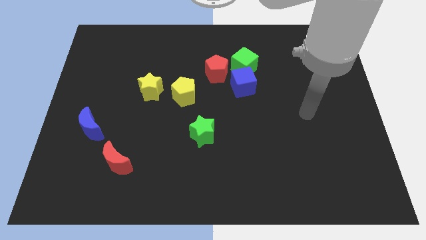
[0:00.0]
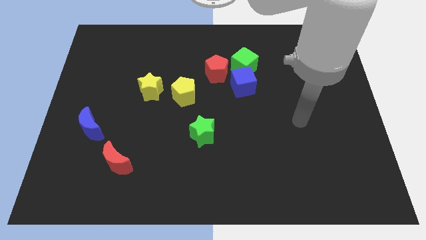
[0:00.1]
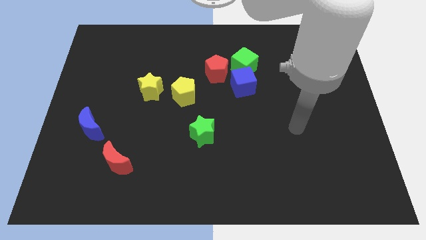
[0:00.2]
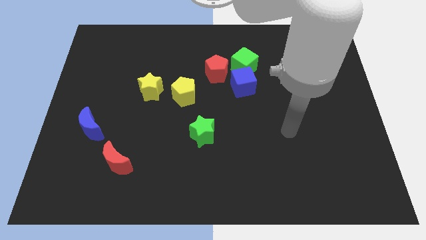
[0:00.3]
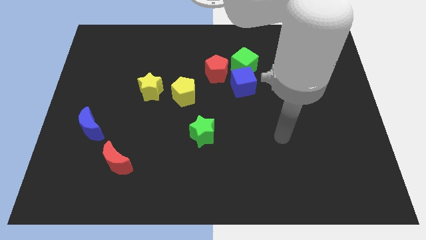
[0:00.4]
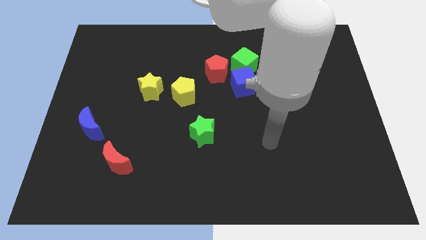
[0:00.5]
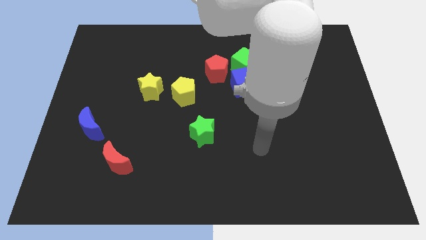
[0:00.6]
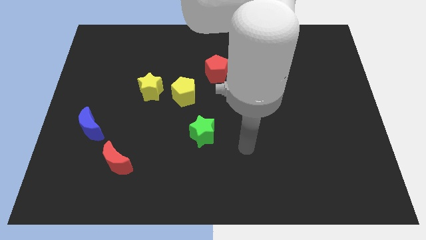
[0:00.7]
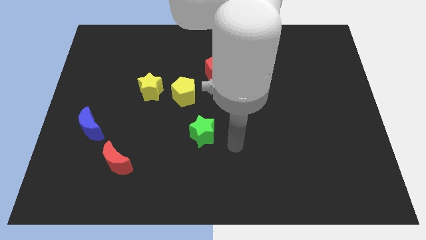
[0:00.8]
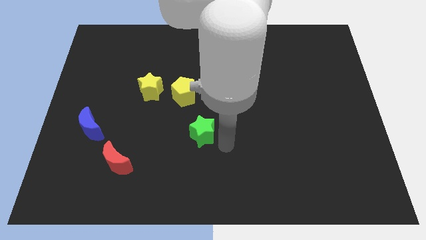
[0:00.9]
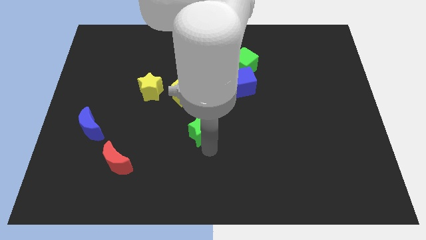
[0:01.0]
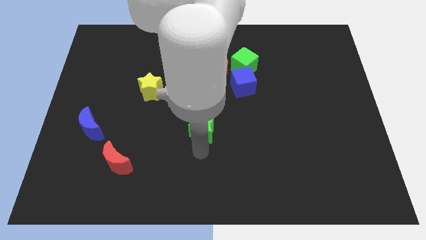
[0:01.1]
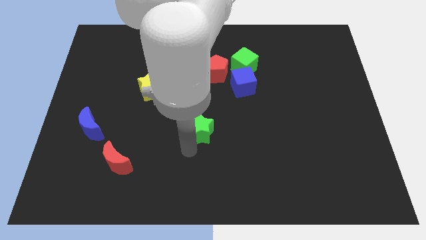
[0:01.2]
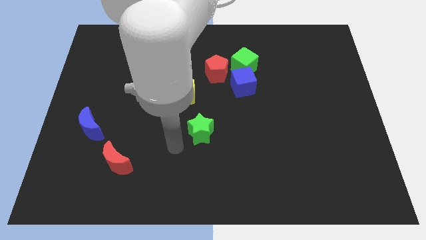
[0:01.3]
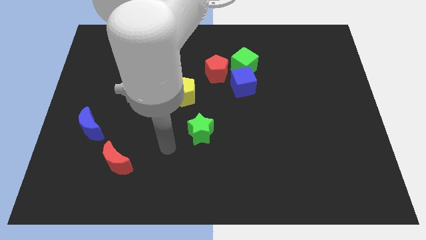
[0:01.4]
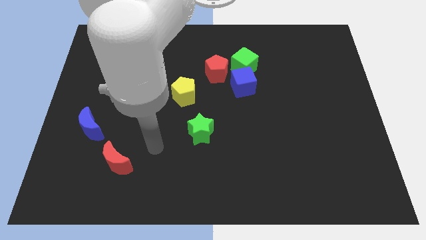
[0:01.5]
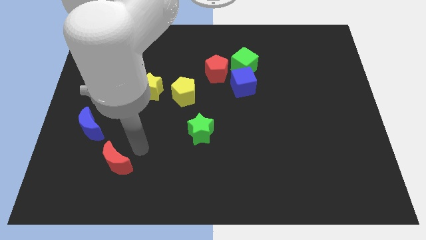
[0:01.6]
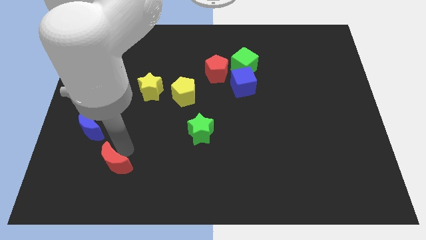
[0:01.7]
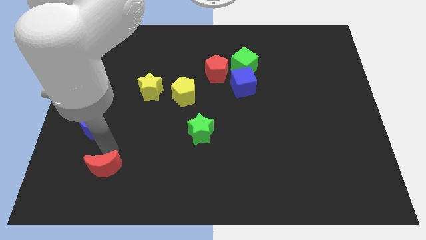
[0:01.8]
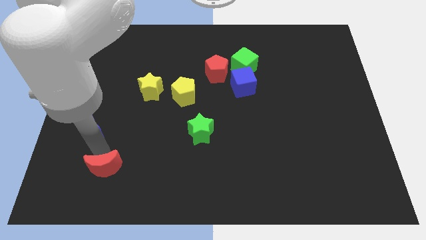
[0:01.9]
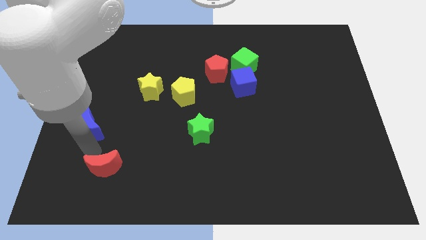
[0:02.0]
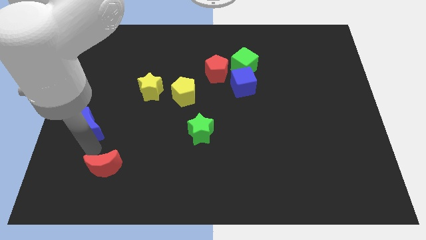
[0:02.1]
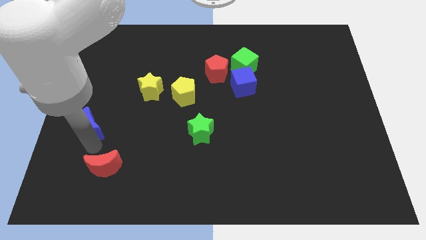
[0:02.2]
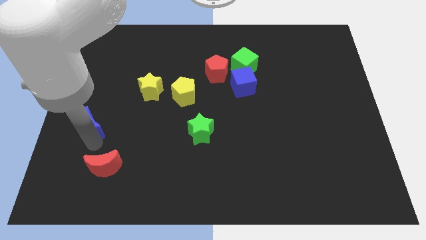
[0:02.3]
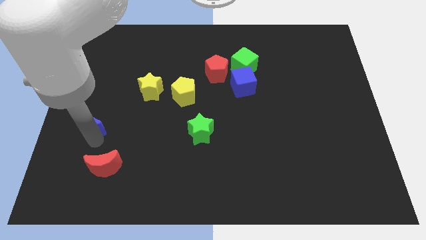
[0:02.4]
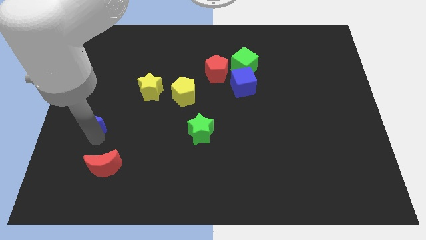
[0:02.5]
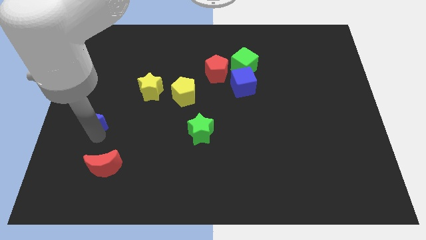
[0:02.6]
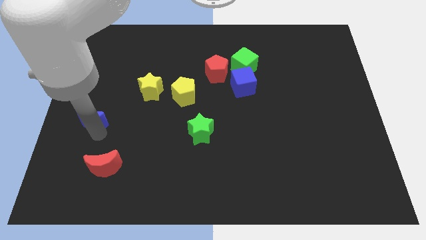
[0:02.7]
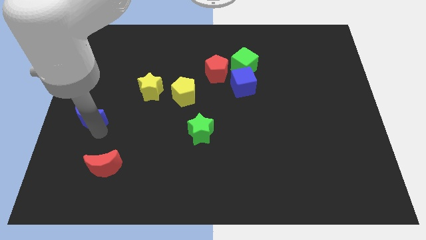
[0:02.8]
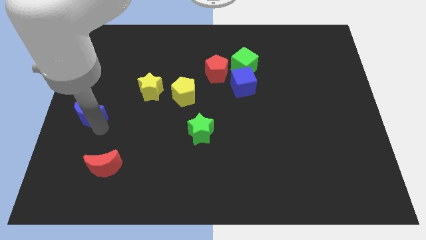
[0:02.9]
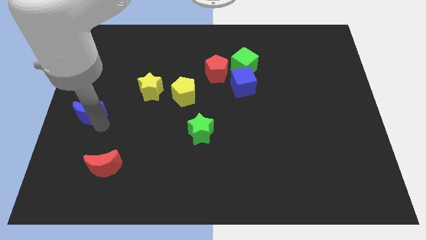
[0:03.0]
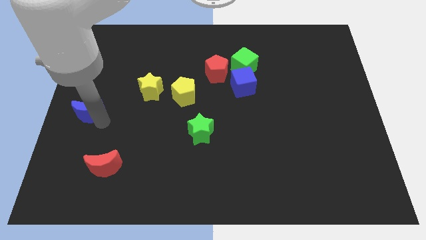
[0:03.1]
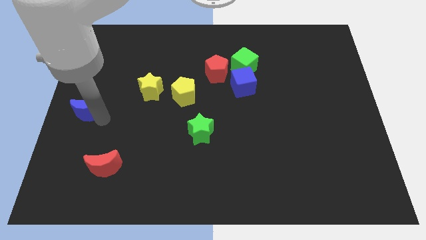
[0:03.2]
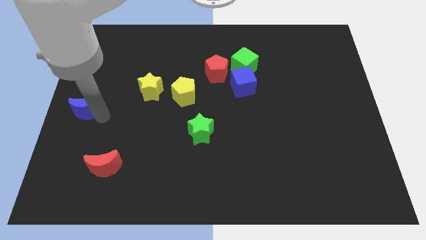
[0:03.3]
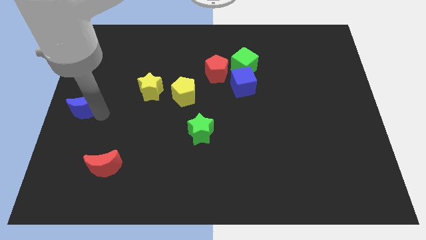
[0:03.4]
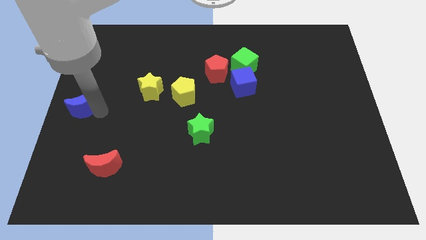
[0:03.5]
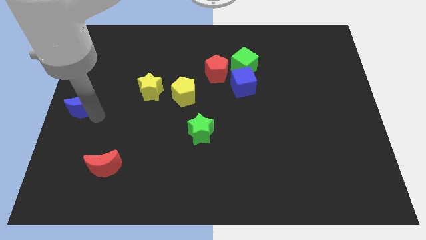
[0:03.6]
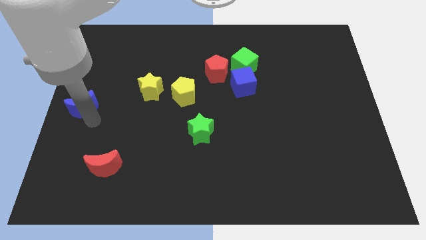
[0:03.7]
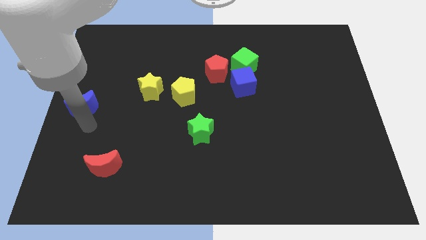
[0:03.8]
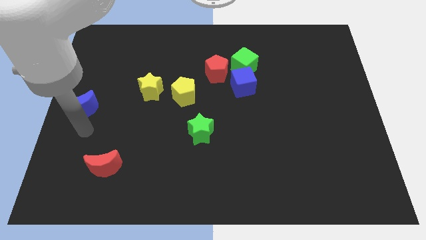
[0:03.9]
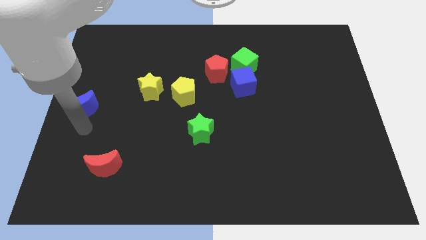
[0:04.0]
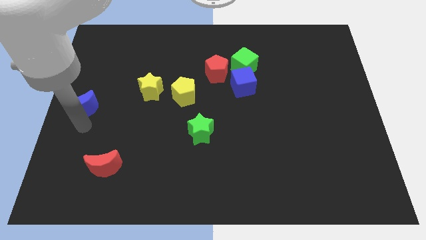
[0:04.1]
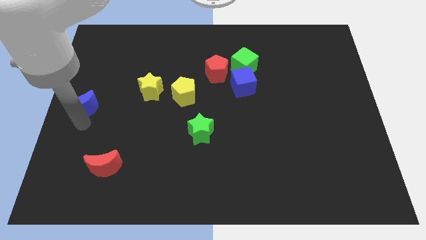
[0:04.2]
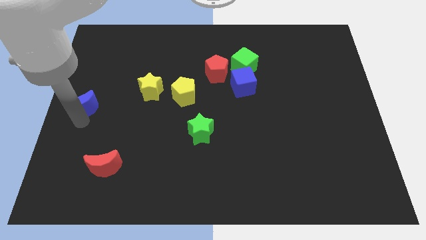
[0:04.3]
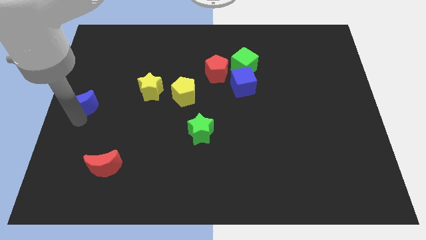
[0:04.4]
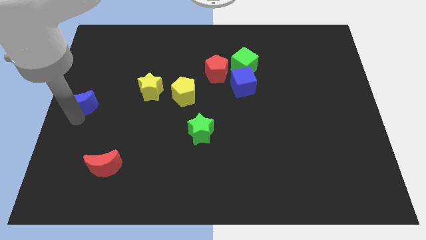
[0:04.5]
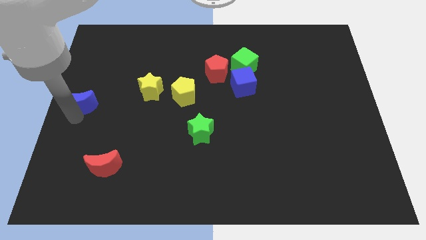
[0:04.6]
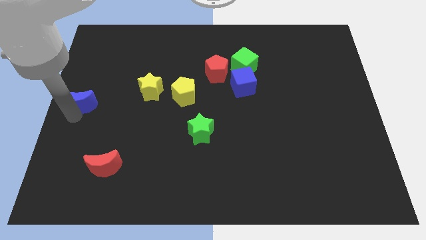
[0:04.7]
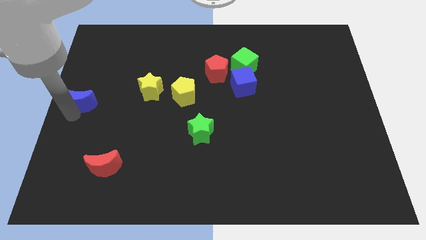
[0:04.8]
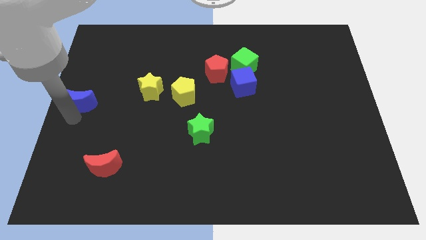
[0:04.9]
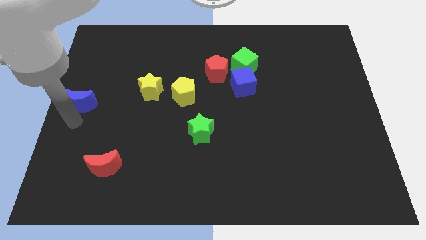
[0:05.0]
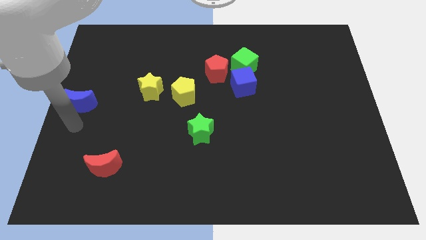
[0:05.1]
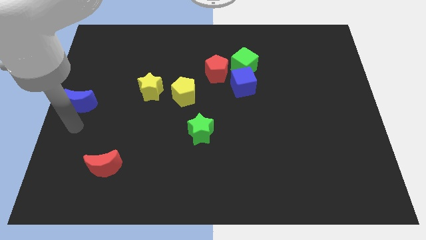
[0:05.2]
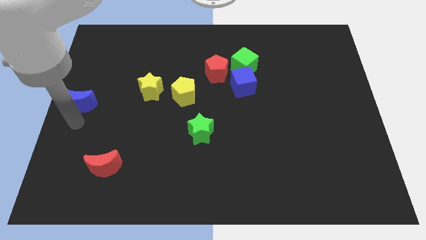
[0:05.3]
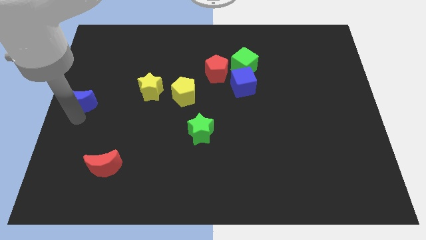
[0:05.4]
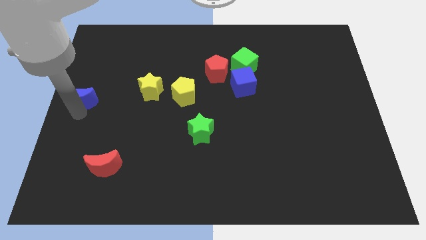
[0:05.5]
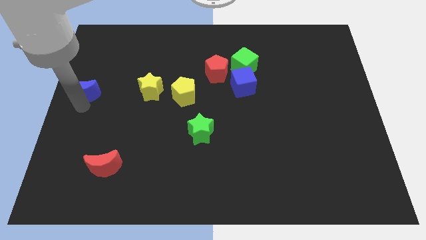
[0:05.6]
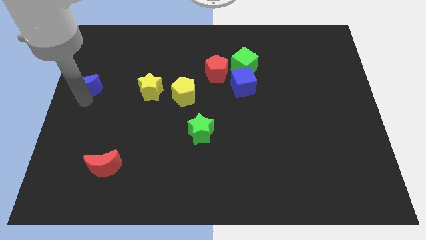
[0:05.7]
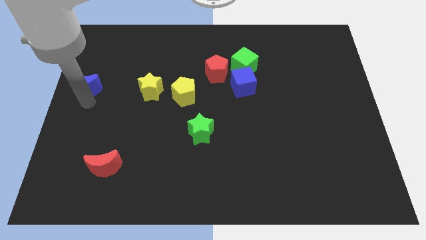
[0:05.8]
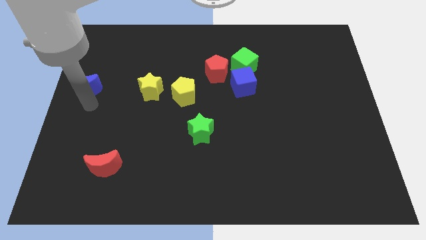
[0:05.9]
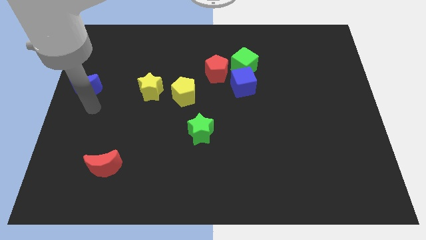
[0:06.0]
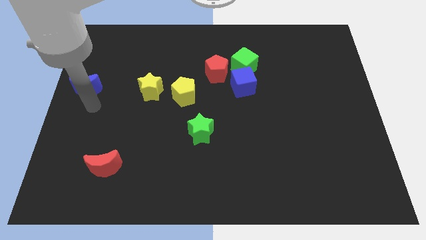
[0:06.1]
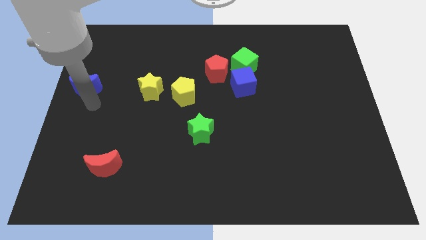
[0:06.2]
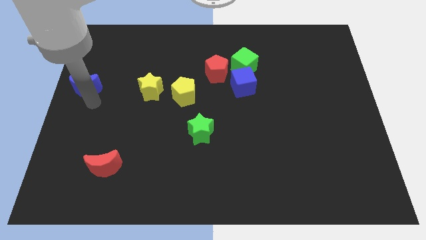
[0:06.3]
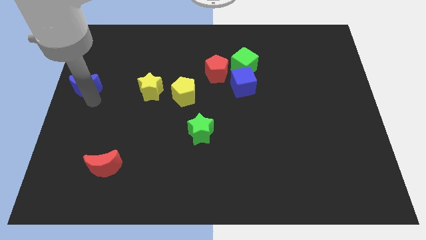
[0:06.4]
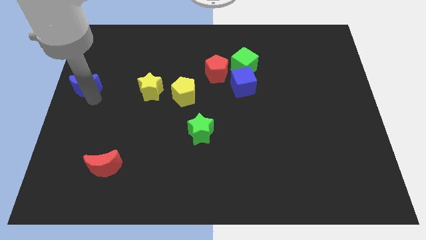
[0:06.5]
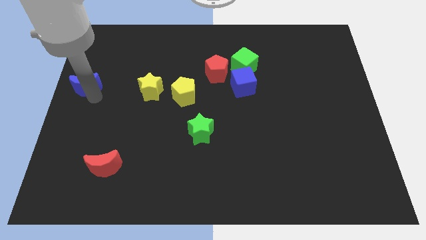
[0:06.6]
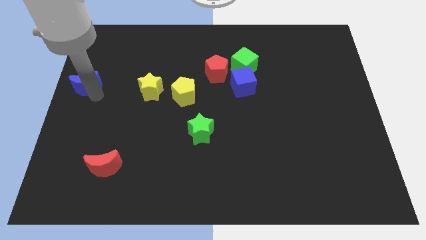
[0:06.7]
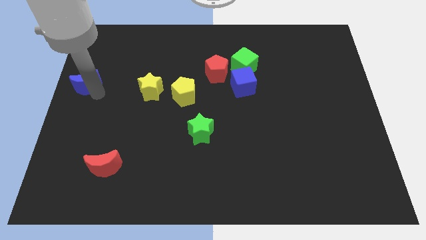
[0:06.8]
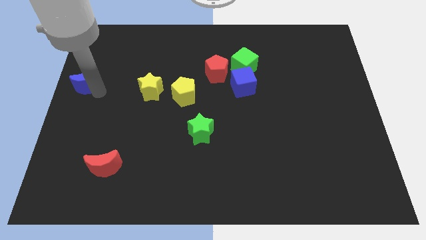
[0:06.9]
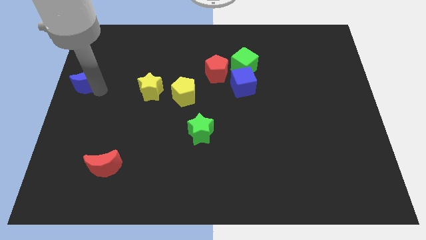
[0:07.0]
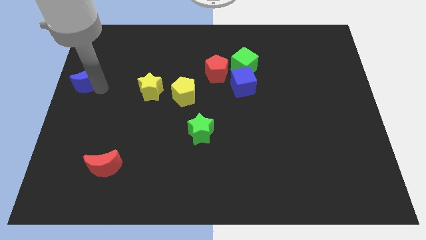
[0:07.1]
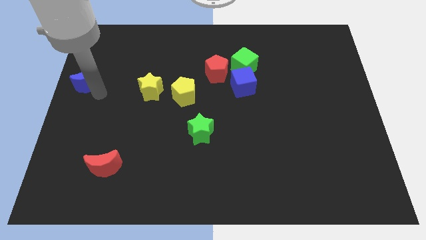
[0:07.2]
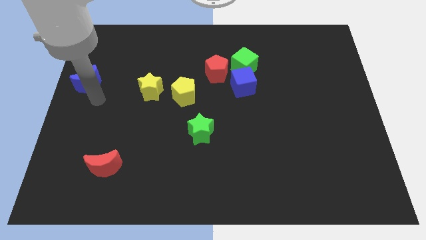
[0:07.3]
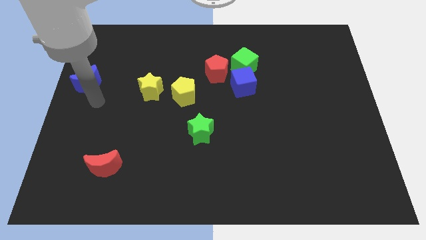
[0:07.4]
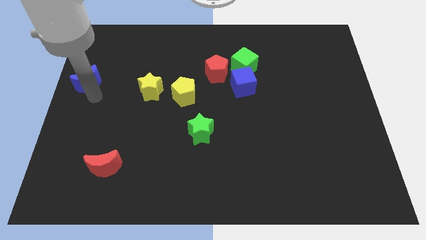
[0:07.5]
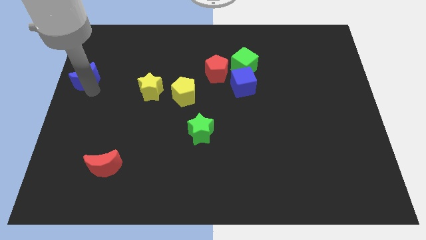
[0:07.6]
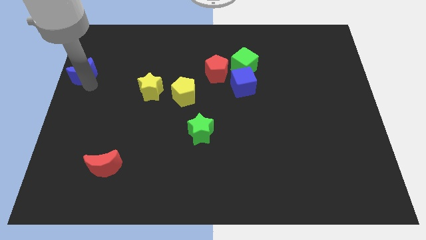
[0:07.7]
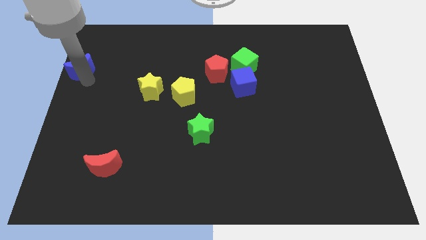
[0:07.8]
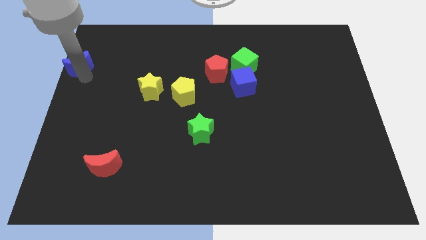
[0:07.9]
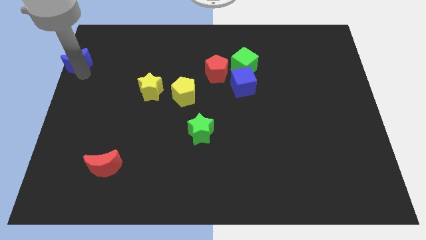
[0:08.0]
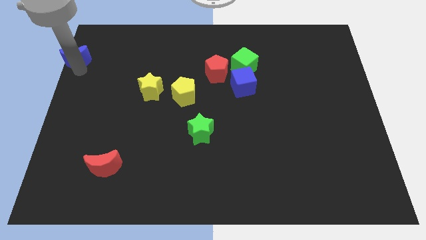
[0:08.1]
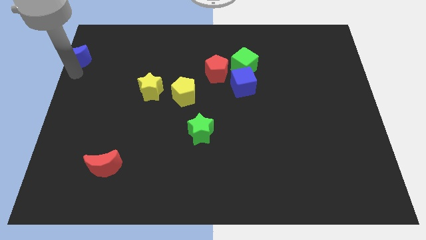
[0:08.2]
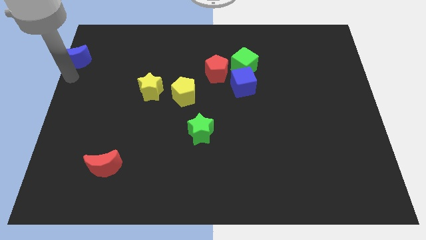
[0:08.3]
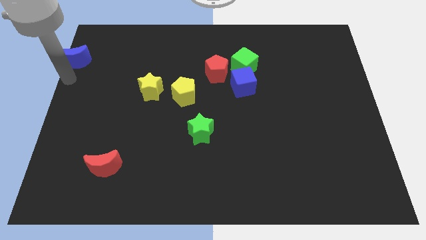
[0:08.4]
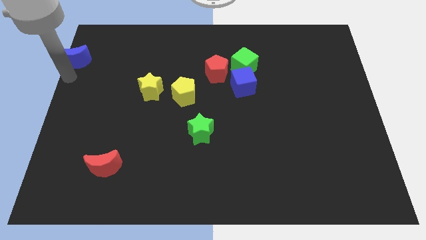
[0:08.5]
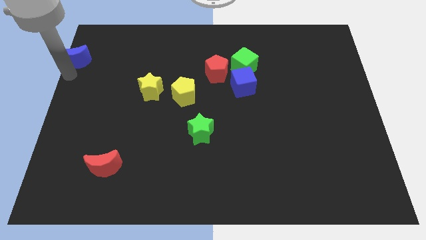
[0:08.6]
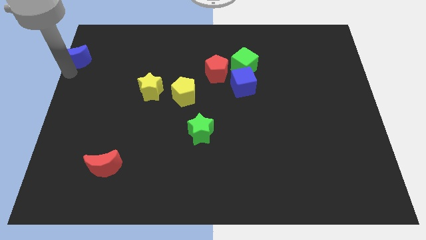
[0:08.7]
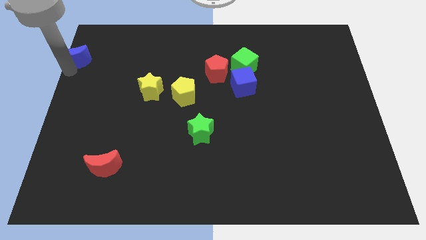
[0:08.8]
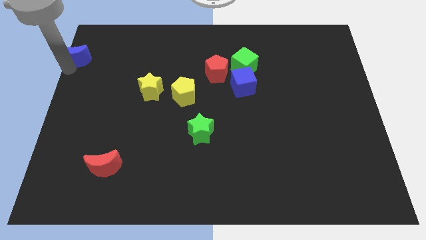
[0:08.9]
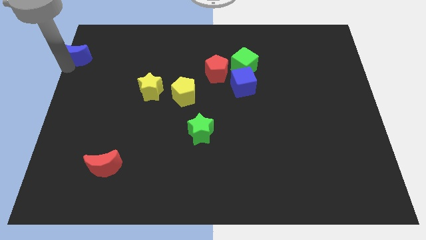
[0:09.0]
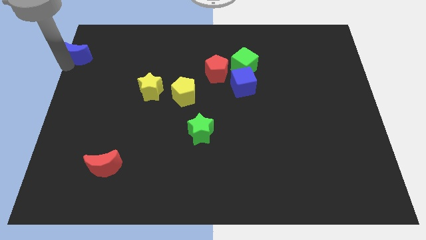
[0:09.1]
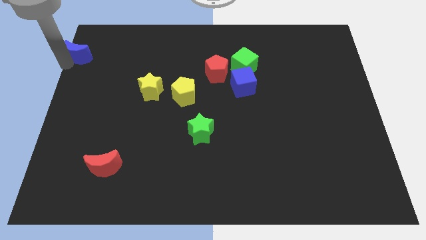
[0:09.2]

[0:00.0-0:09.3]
push the blue moon to the upper left corner
